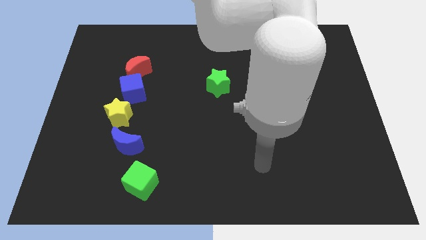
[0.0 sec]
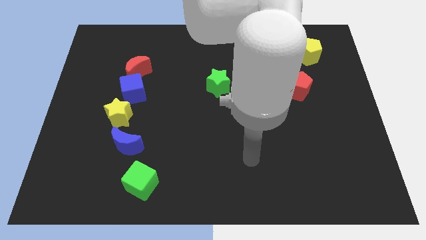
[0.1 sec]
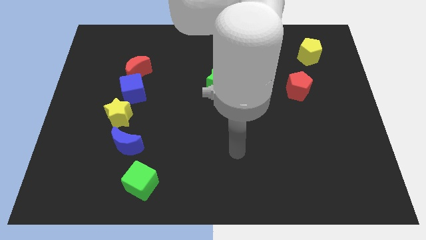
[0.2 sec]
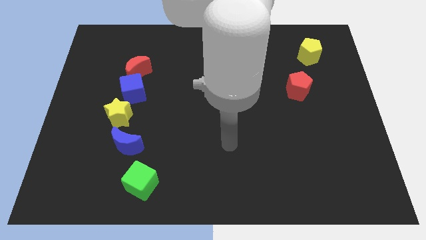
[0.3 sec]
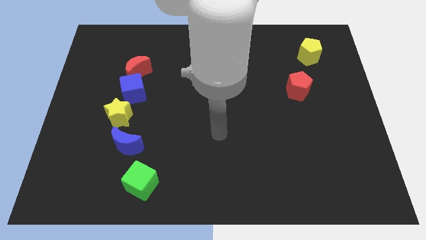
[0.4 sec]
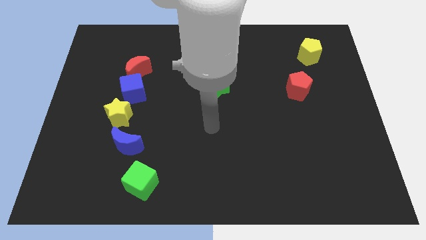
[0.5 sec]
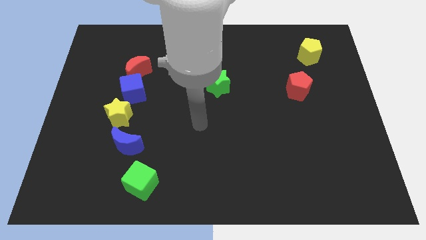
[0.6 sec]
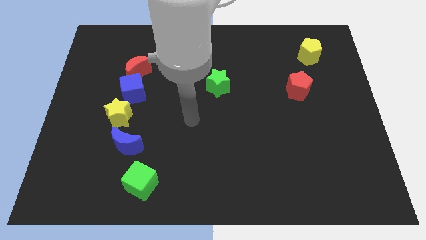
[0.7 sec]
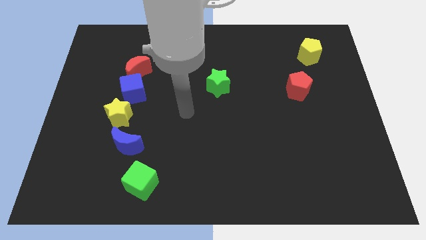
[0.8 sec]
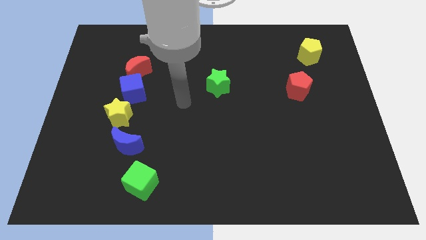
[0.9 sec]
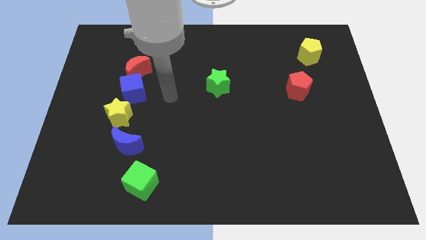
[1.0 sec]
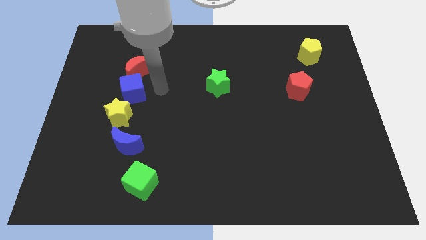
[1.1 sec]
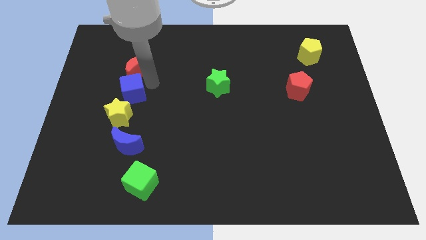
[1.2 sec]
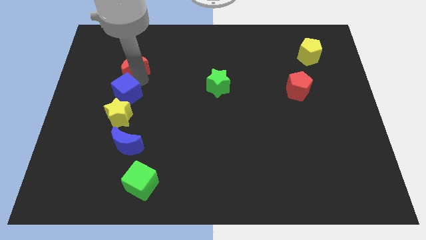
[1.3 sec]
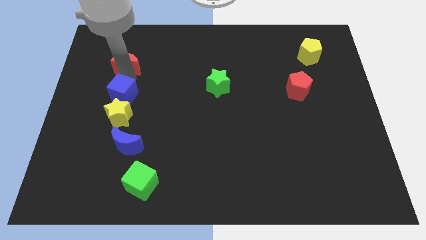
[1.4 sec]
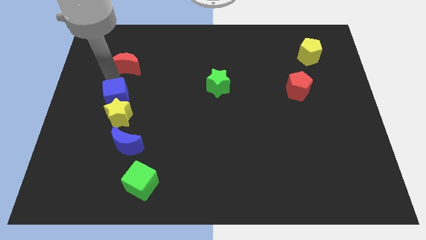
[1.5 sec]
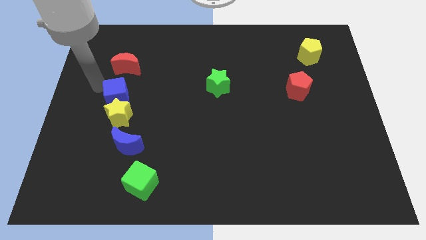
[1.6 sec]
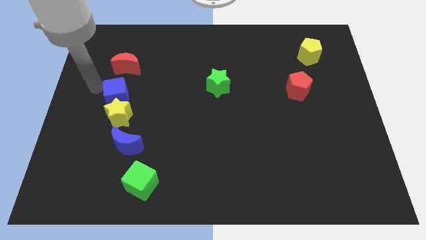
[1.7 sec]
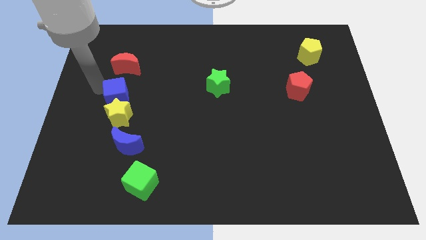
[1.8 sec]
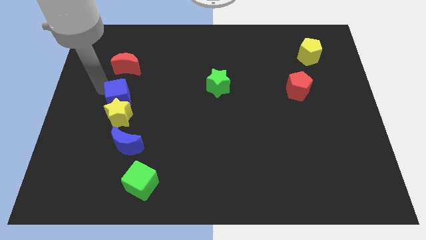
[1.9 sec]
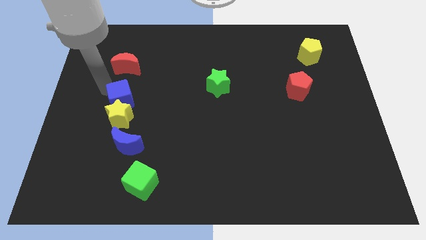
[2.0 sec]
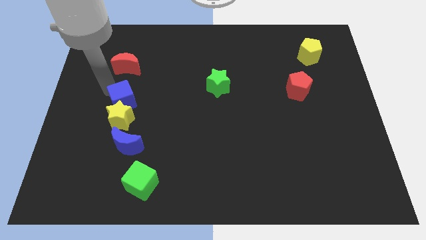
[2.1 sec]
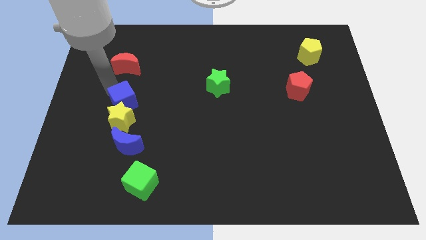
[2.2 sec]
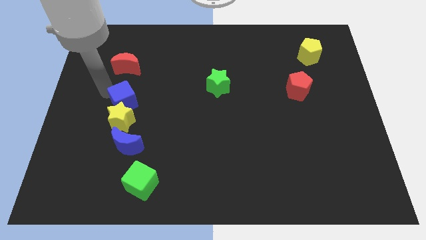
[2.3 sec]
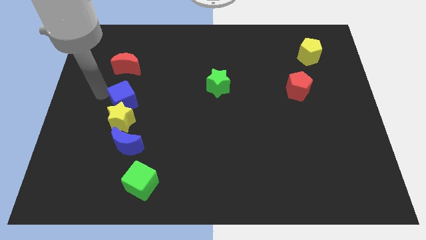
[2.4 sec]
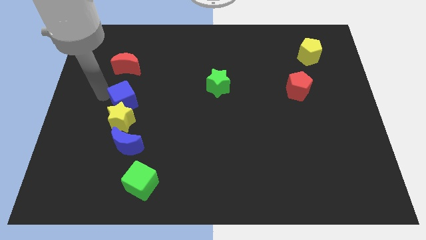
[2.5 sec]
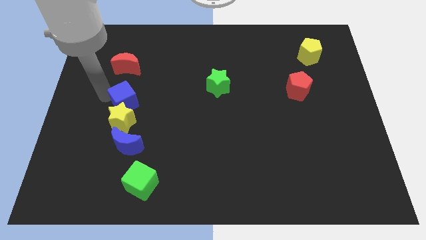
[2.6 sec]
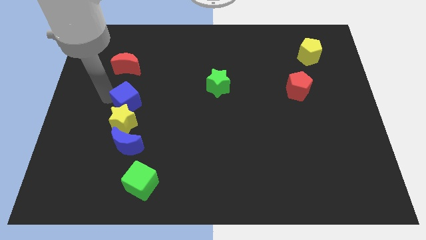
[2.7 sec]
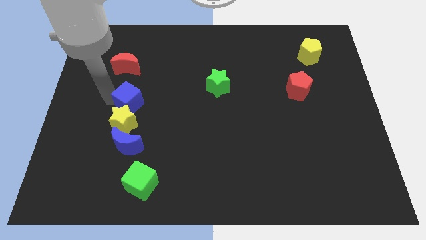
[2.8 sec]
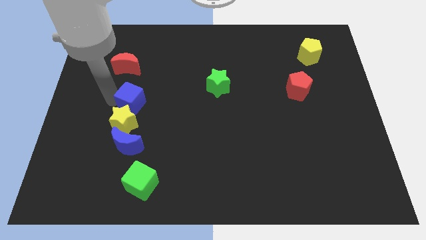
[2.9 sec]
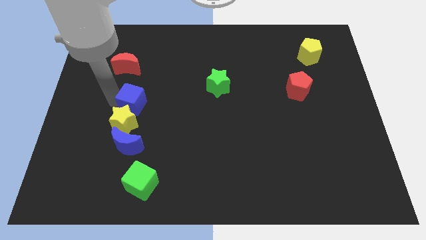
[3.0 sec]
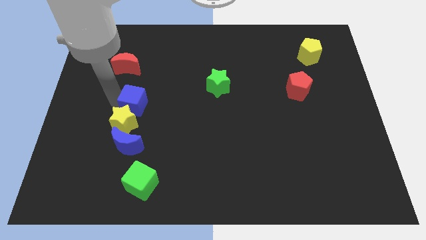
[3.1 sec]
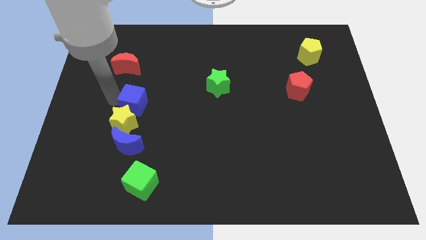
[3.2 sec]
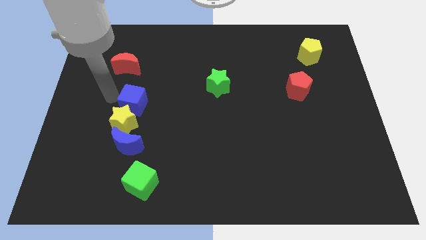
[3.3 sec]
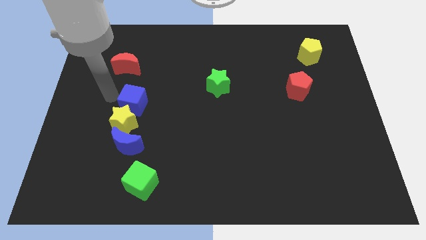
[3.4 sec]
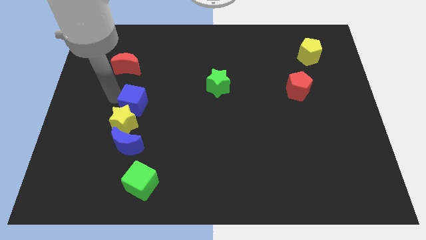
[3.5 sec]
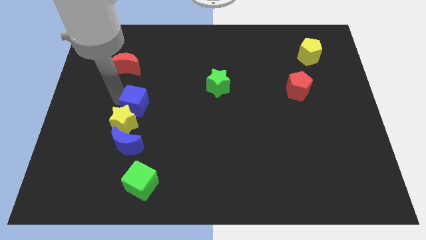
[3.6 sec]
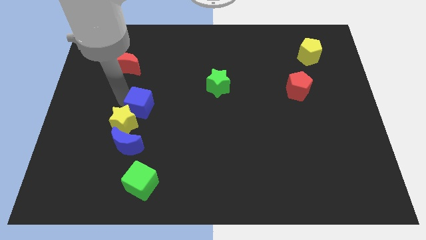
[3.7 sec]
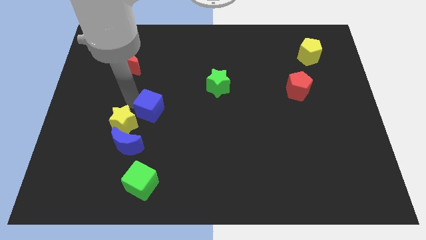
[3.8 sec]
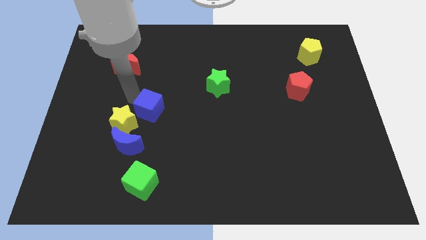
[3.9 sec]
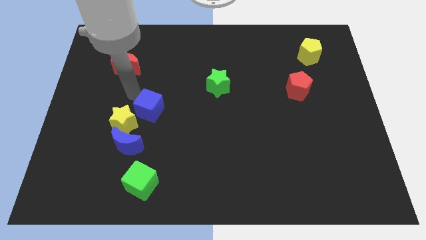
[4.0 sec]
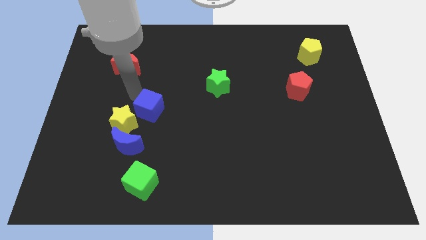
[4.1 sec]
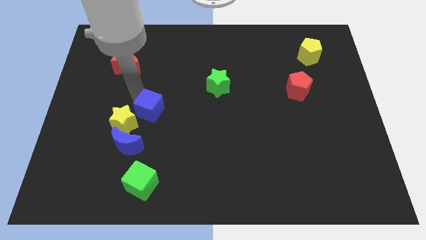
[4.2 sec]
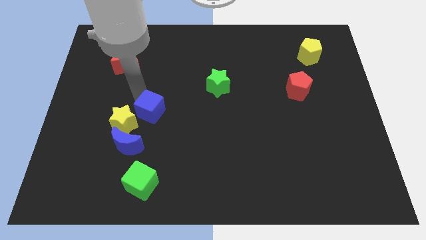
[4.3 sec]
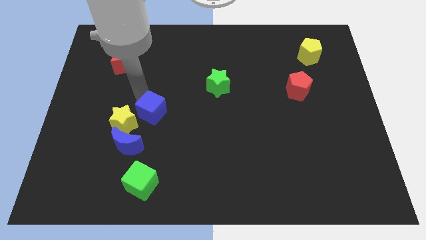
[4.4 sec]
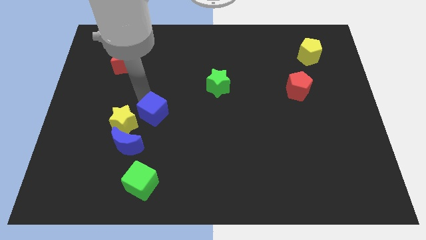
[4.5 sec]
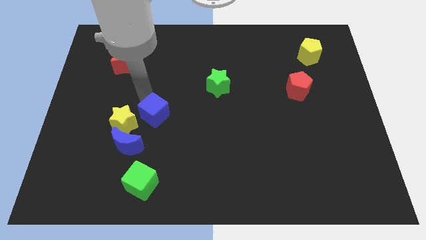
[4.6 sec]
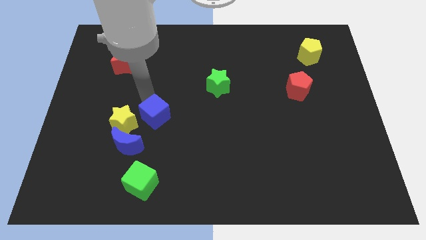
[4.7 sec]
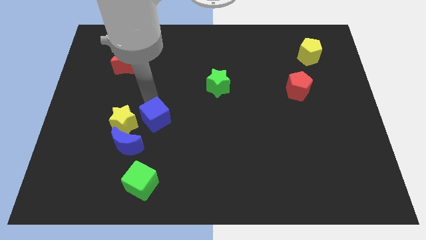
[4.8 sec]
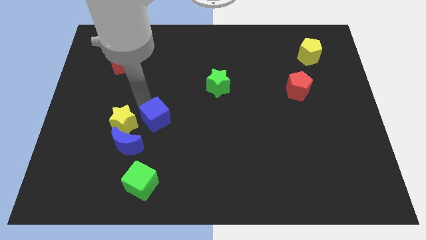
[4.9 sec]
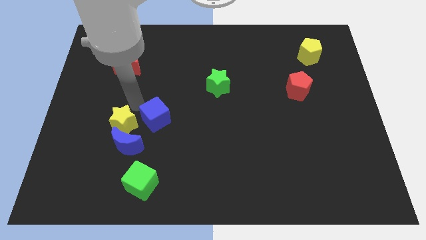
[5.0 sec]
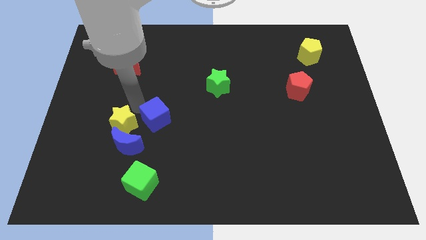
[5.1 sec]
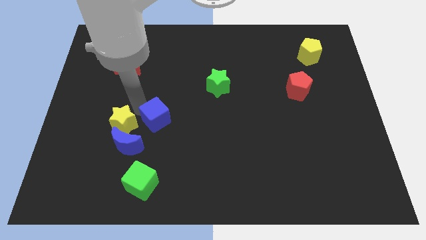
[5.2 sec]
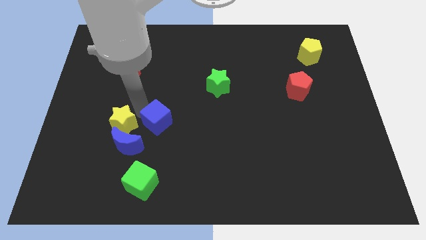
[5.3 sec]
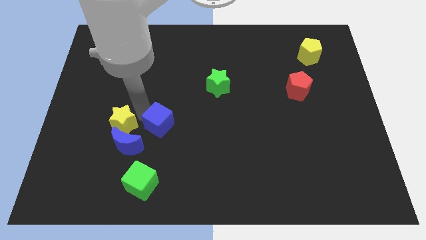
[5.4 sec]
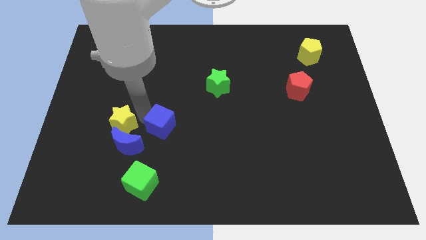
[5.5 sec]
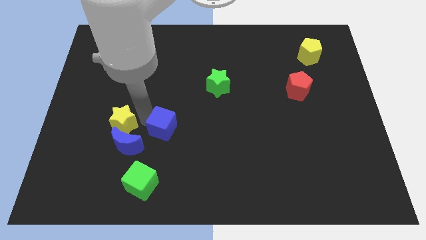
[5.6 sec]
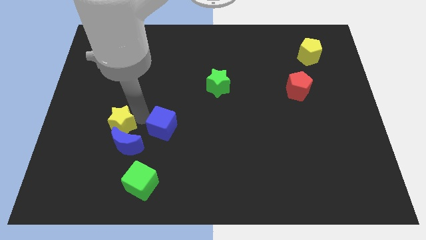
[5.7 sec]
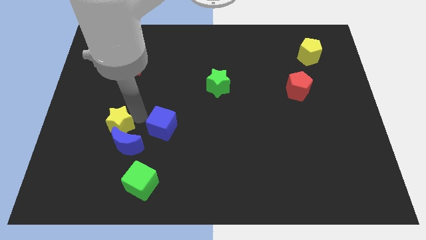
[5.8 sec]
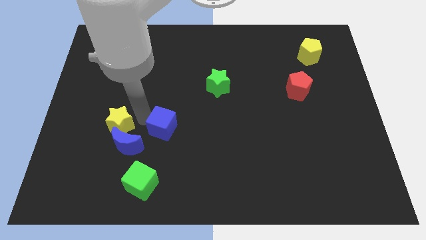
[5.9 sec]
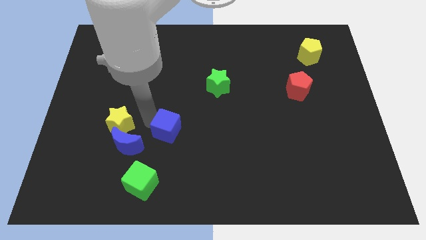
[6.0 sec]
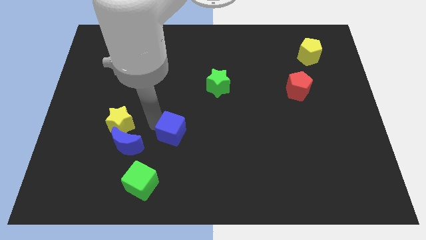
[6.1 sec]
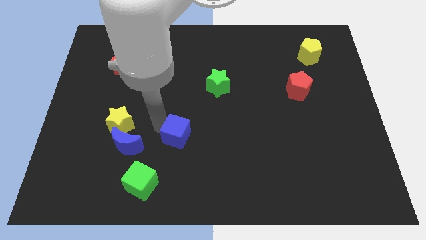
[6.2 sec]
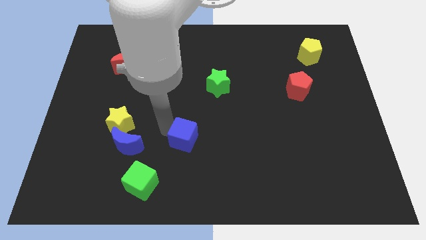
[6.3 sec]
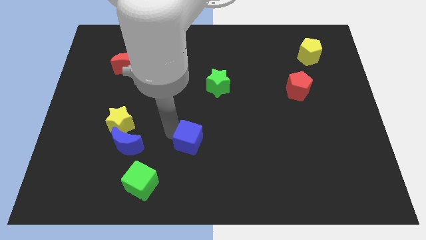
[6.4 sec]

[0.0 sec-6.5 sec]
move the blue cube down and then to the right

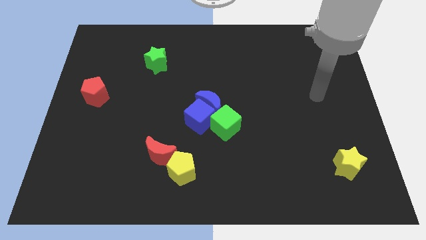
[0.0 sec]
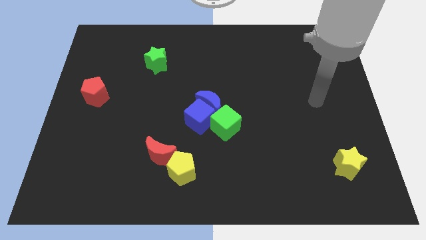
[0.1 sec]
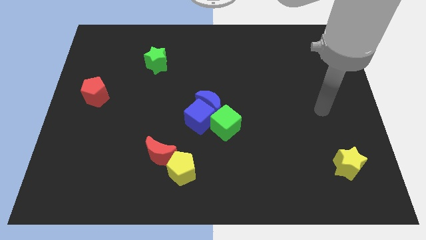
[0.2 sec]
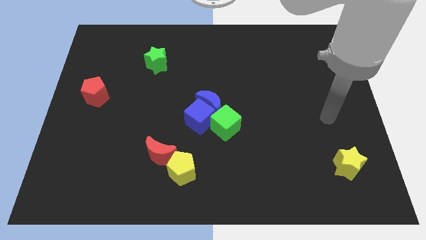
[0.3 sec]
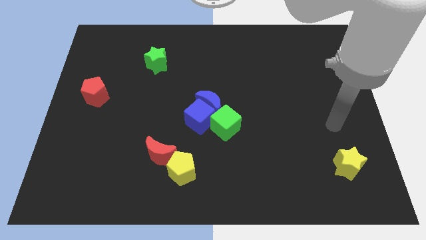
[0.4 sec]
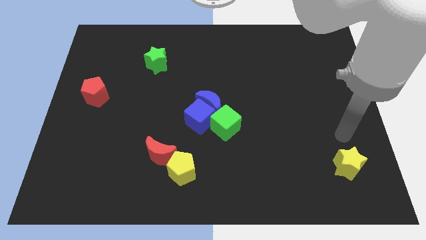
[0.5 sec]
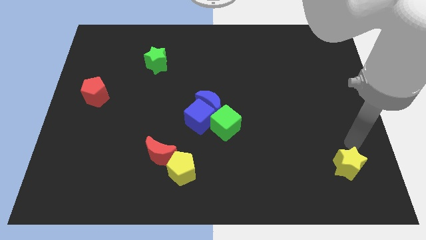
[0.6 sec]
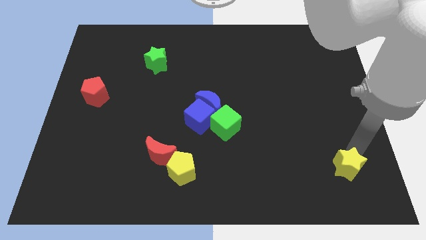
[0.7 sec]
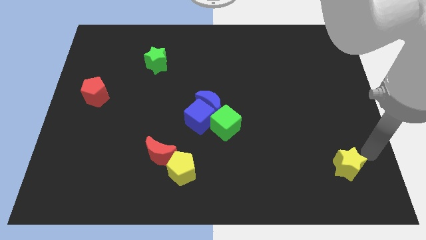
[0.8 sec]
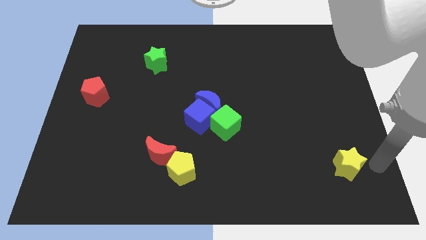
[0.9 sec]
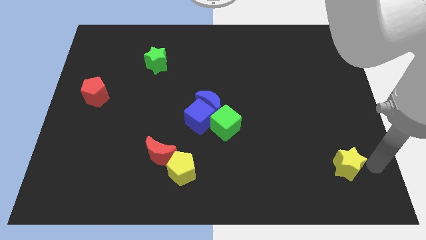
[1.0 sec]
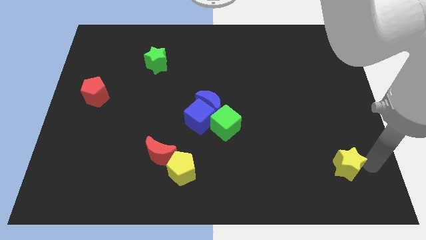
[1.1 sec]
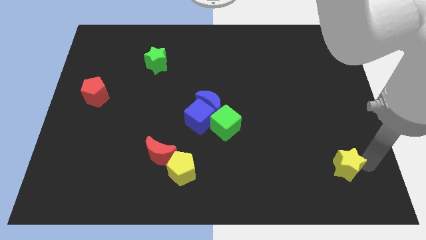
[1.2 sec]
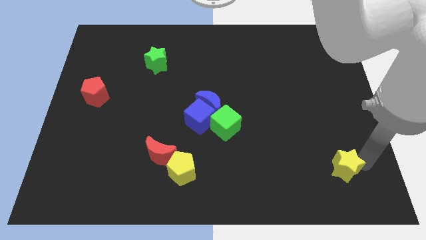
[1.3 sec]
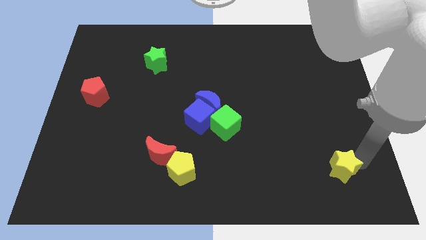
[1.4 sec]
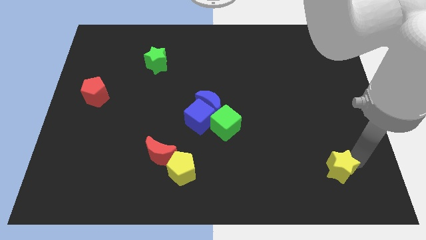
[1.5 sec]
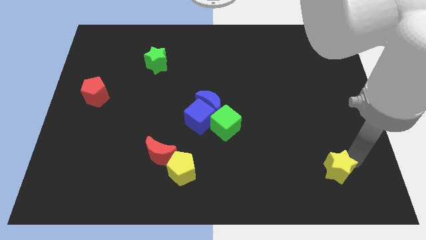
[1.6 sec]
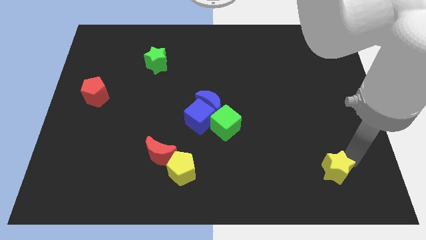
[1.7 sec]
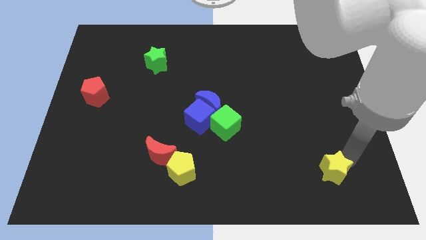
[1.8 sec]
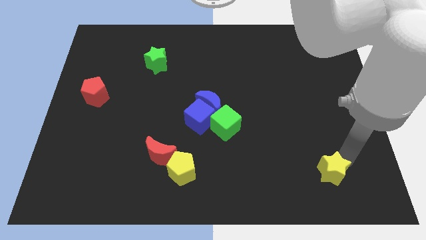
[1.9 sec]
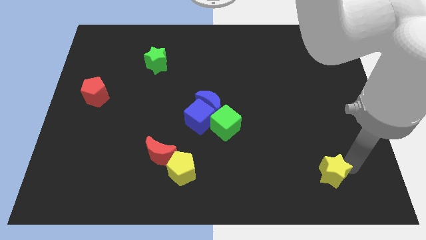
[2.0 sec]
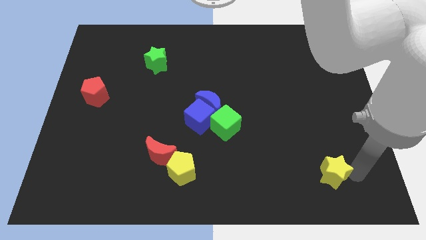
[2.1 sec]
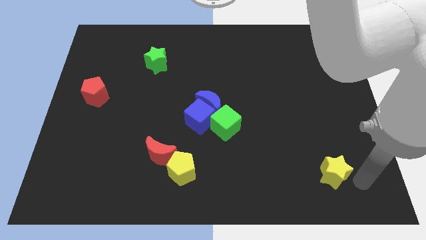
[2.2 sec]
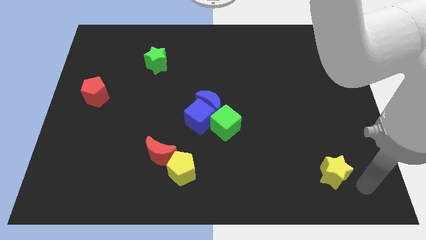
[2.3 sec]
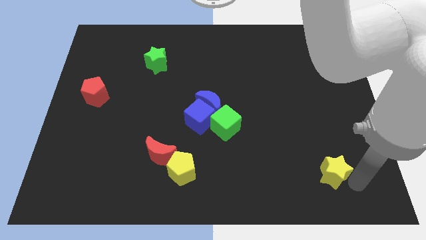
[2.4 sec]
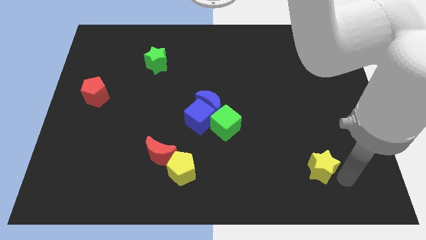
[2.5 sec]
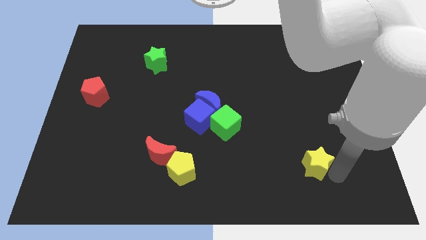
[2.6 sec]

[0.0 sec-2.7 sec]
slightly move the yellow star to the left
